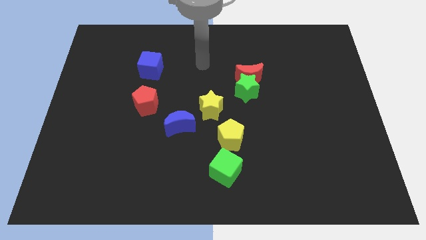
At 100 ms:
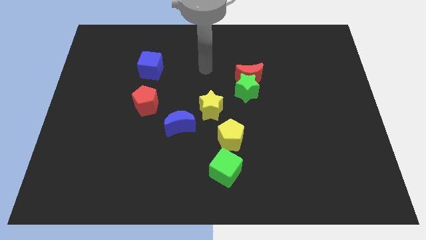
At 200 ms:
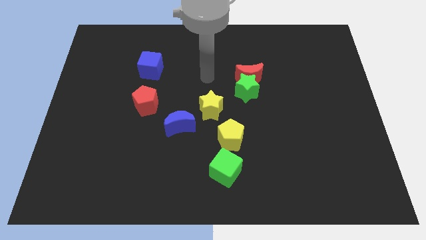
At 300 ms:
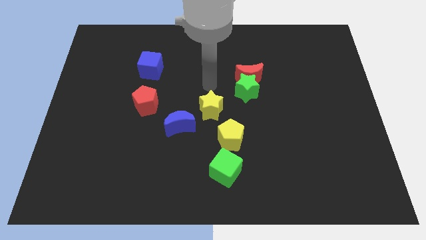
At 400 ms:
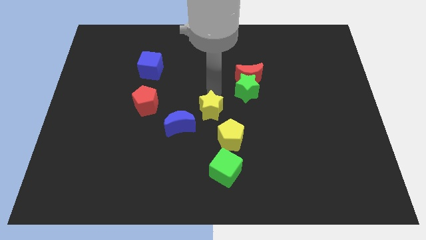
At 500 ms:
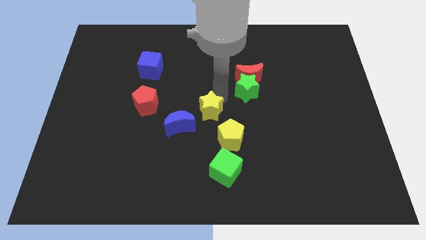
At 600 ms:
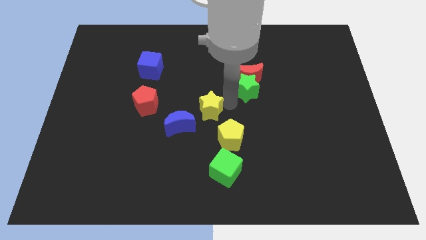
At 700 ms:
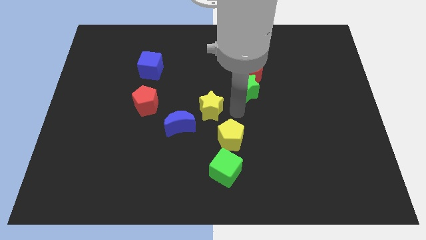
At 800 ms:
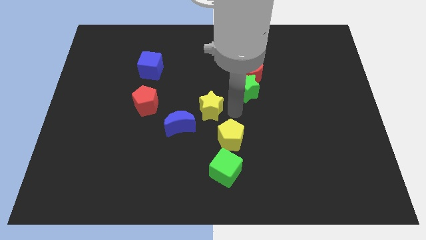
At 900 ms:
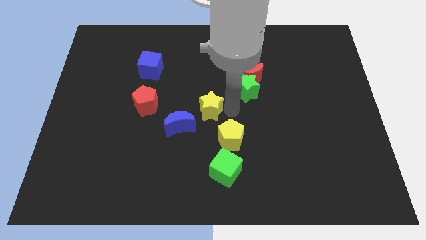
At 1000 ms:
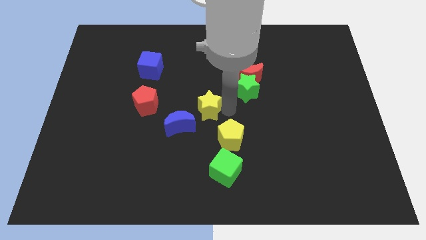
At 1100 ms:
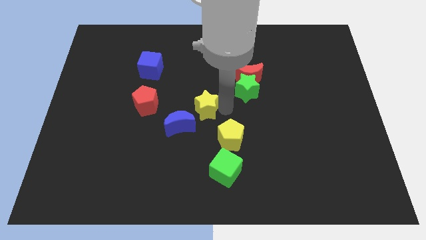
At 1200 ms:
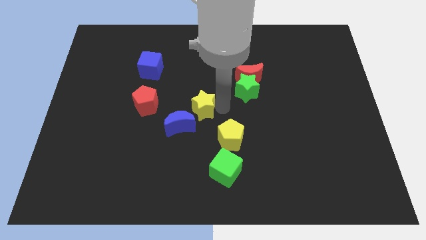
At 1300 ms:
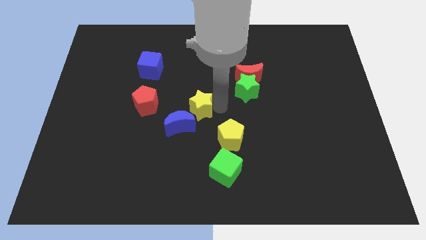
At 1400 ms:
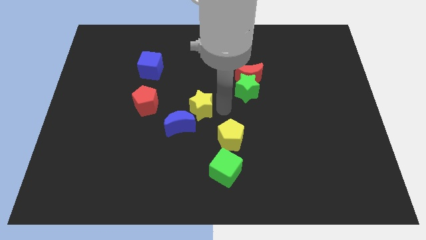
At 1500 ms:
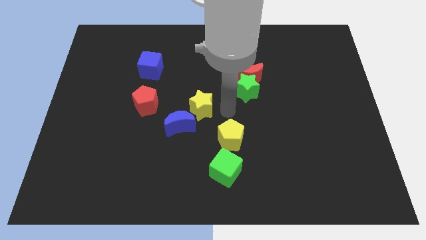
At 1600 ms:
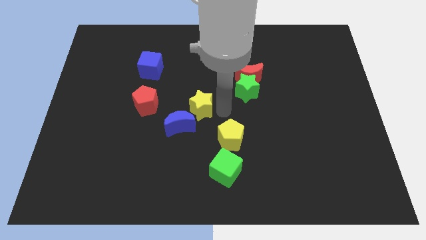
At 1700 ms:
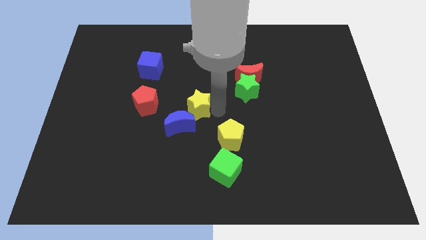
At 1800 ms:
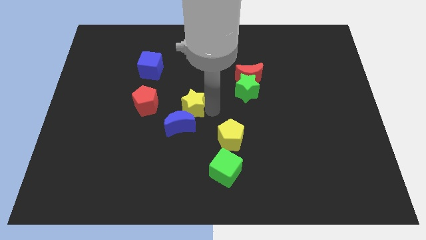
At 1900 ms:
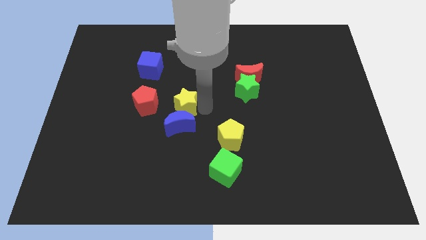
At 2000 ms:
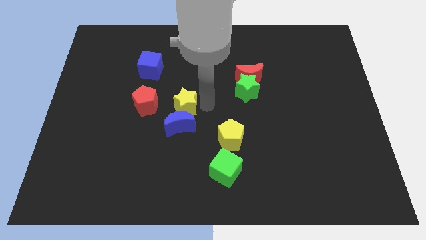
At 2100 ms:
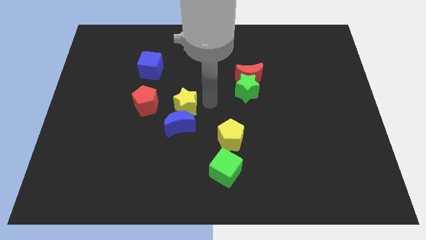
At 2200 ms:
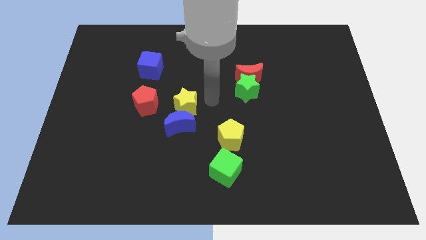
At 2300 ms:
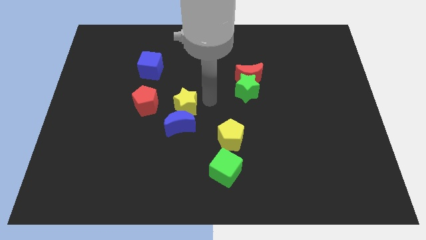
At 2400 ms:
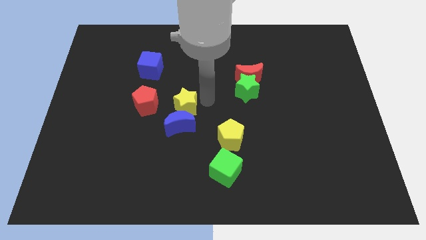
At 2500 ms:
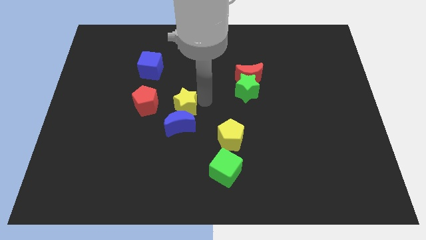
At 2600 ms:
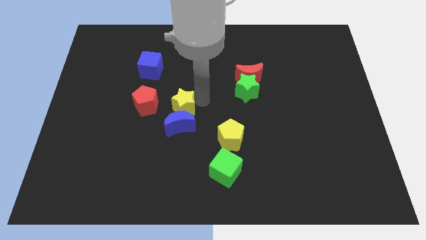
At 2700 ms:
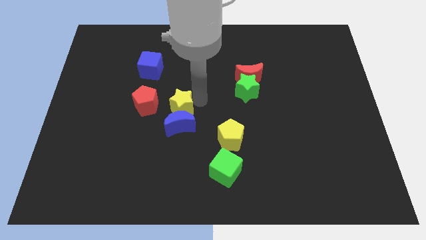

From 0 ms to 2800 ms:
push the yellow star to the left somewhat

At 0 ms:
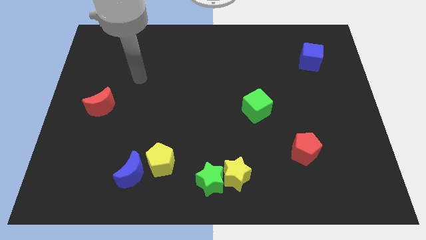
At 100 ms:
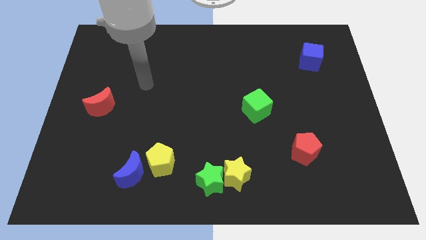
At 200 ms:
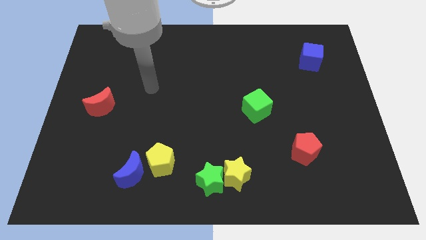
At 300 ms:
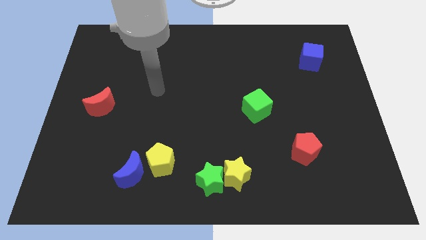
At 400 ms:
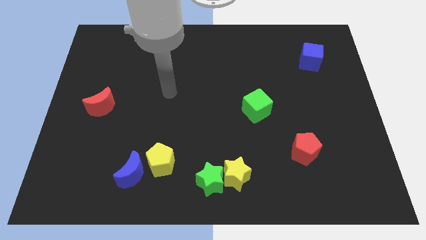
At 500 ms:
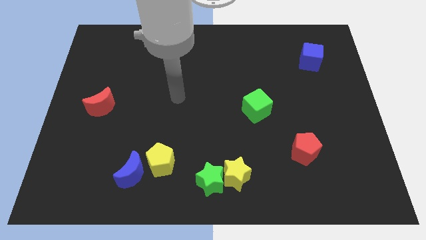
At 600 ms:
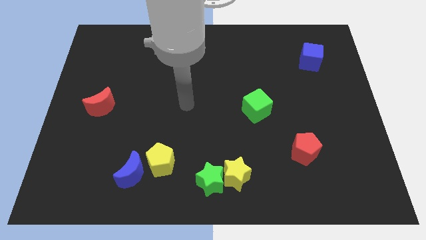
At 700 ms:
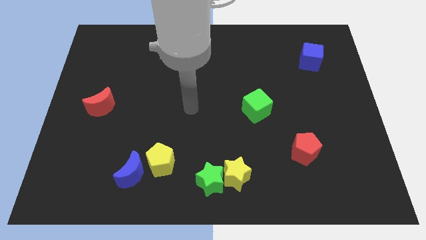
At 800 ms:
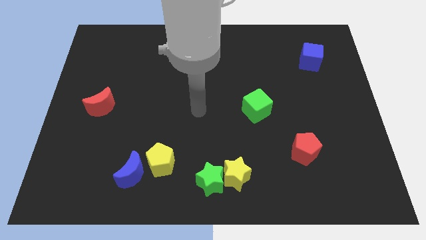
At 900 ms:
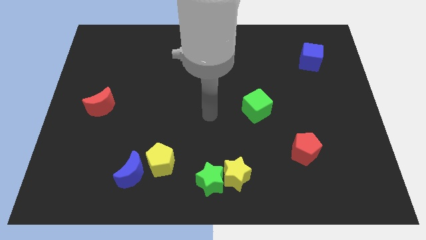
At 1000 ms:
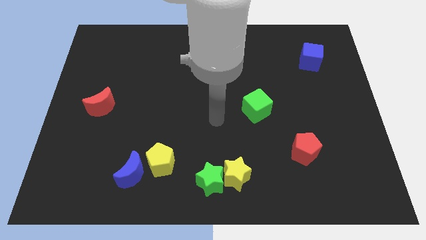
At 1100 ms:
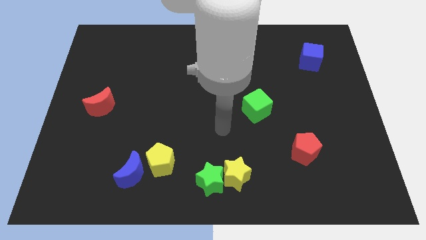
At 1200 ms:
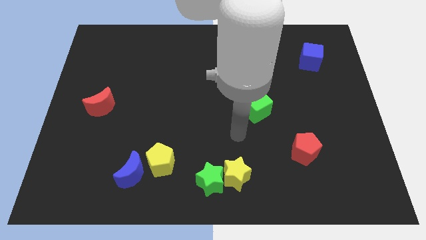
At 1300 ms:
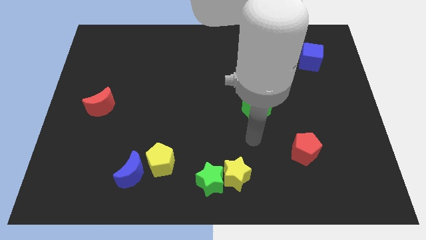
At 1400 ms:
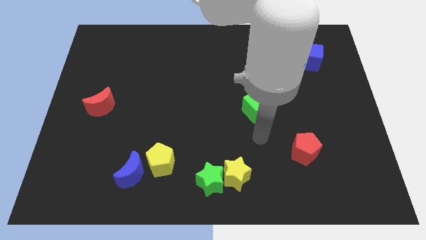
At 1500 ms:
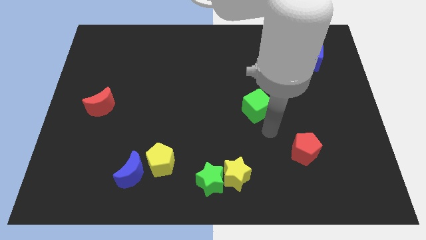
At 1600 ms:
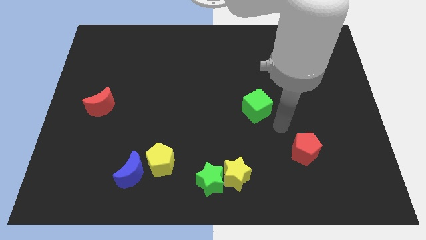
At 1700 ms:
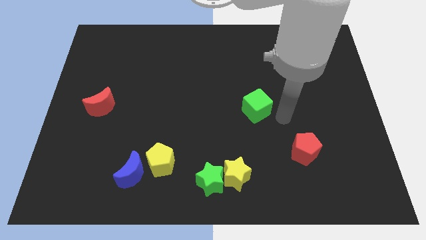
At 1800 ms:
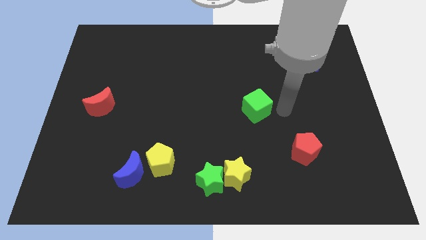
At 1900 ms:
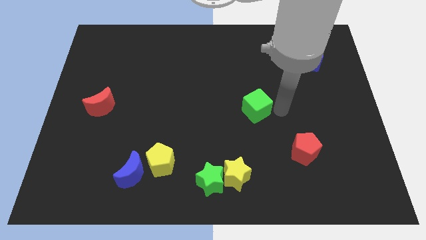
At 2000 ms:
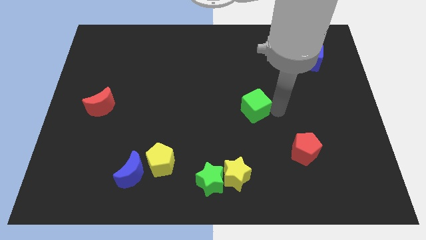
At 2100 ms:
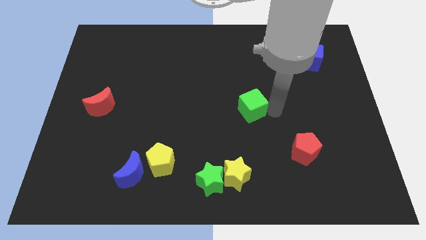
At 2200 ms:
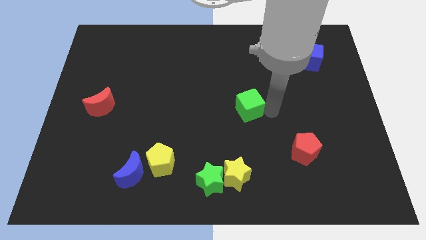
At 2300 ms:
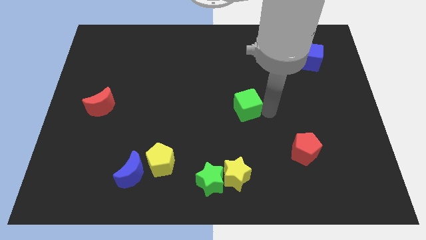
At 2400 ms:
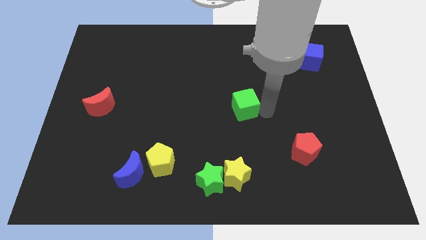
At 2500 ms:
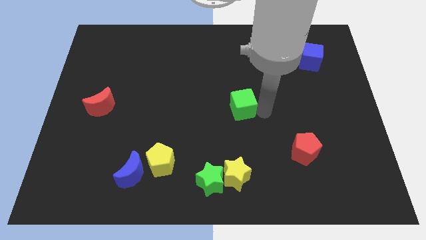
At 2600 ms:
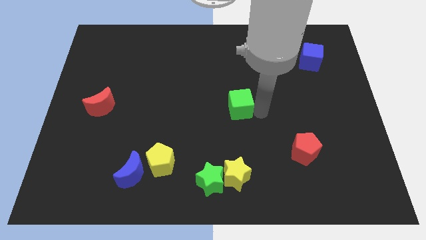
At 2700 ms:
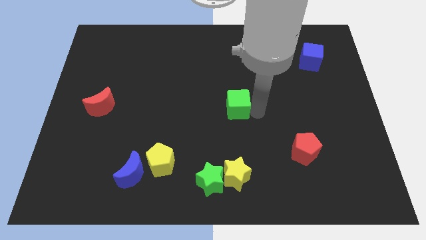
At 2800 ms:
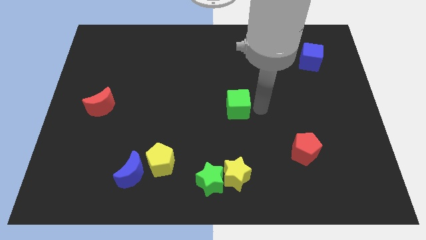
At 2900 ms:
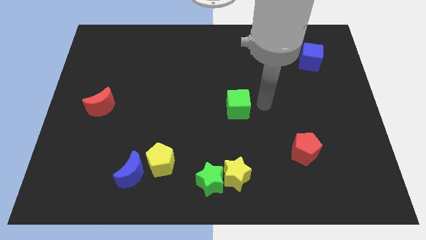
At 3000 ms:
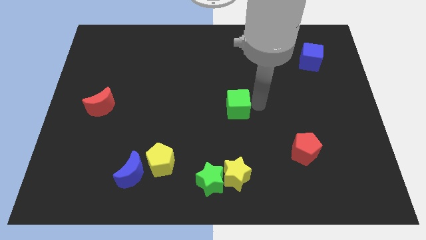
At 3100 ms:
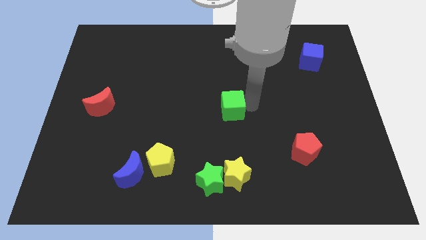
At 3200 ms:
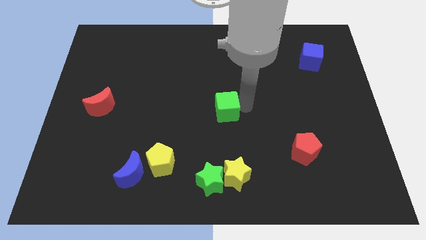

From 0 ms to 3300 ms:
move the green cube a little bit left

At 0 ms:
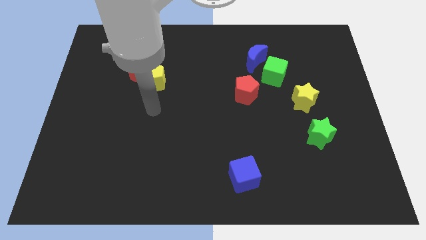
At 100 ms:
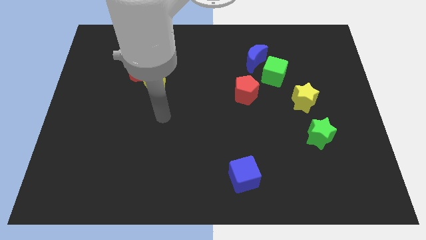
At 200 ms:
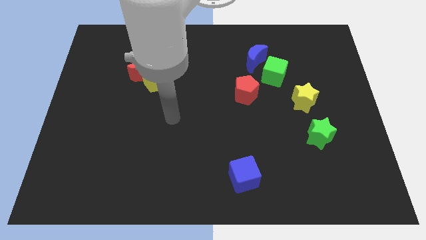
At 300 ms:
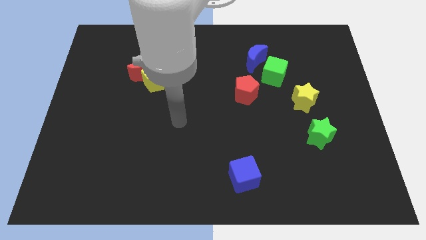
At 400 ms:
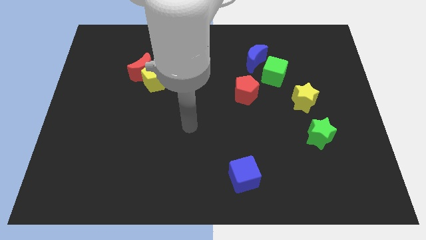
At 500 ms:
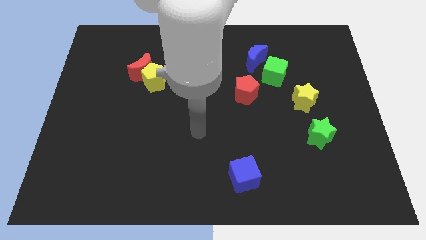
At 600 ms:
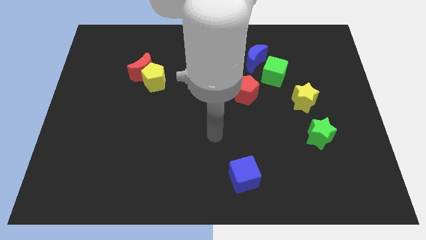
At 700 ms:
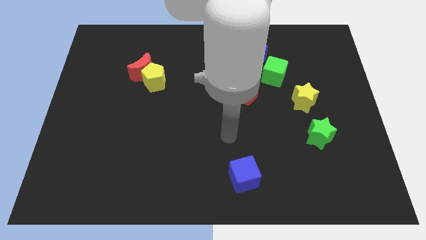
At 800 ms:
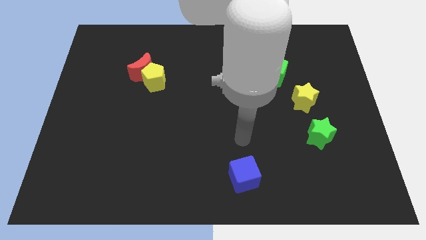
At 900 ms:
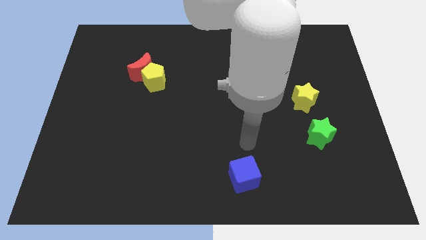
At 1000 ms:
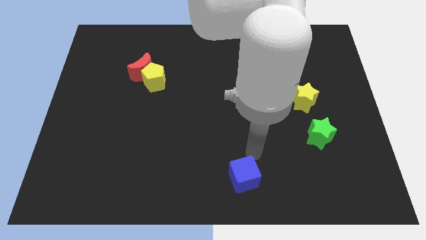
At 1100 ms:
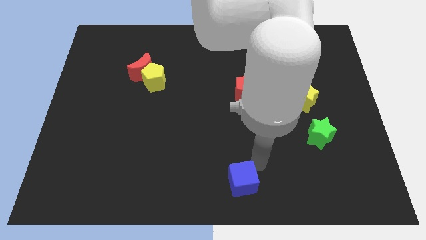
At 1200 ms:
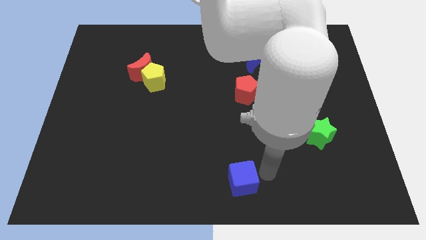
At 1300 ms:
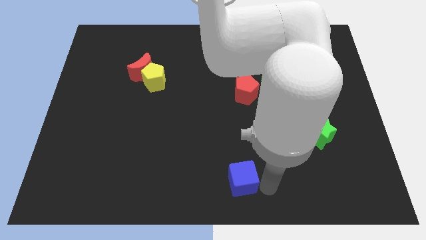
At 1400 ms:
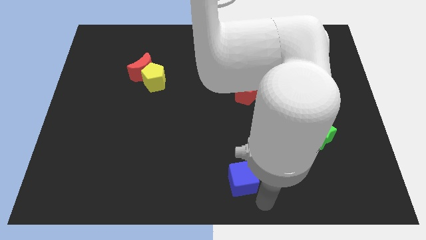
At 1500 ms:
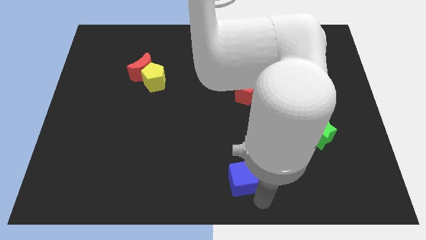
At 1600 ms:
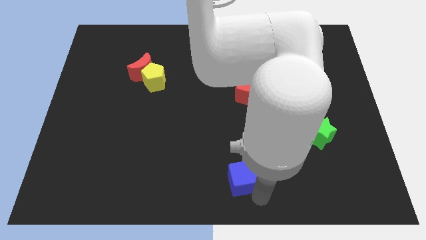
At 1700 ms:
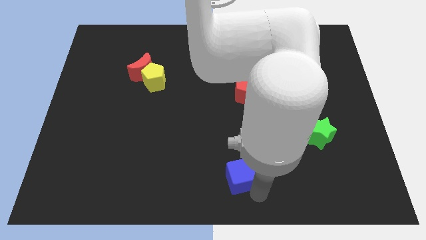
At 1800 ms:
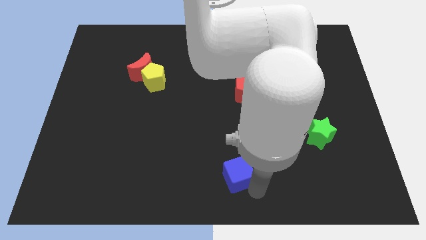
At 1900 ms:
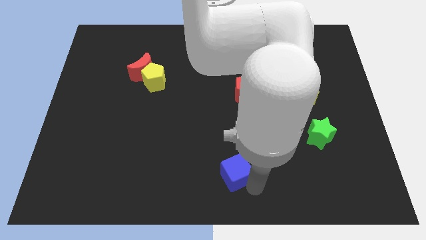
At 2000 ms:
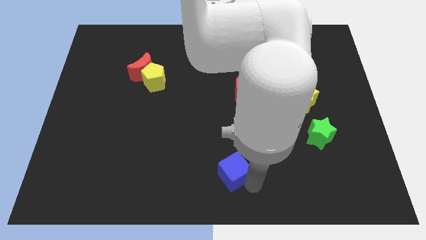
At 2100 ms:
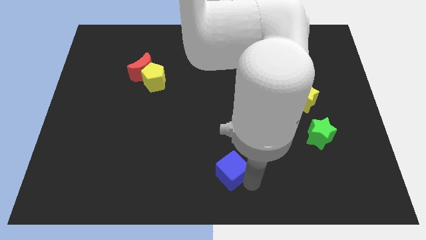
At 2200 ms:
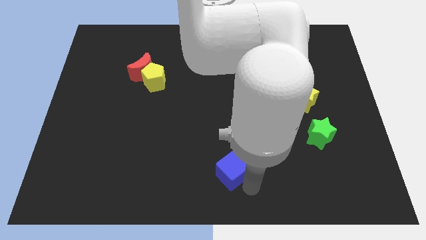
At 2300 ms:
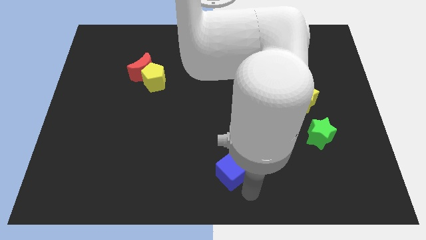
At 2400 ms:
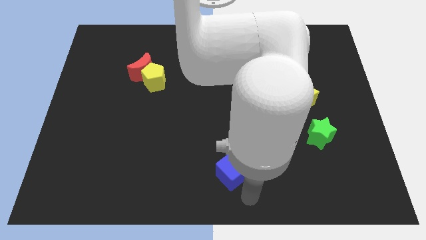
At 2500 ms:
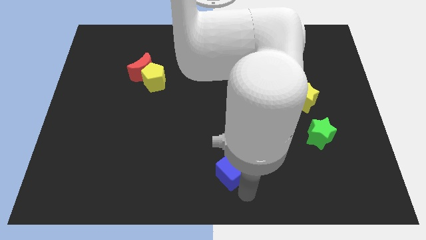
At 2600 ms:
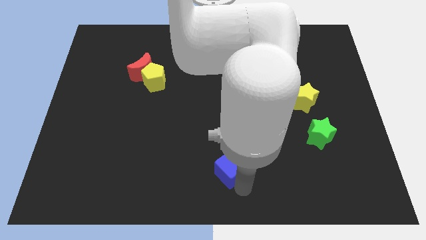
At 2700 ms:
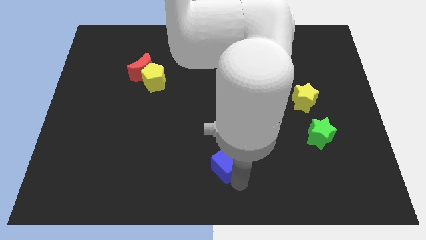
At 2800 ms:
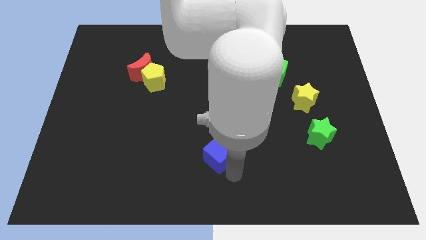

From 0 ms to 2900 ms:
slide the blue cube somewhat up and left
